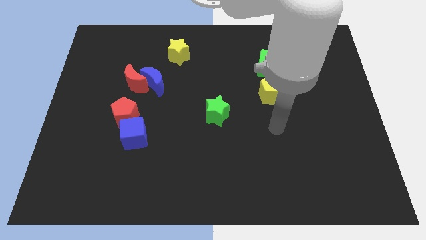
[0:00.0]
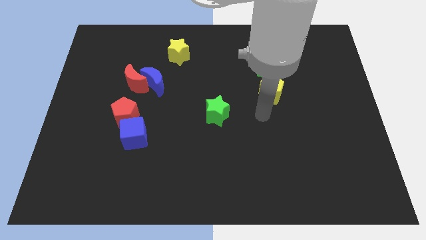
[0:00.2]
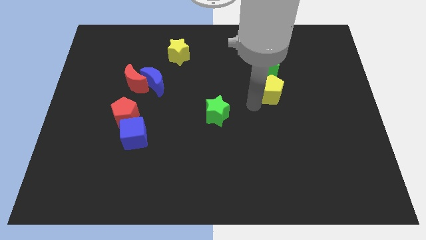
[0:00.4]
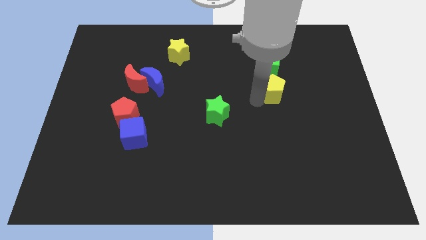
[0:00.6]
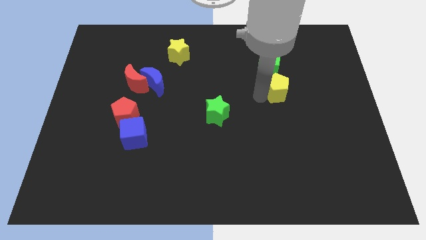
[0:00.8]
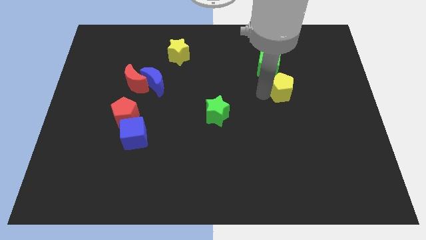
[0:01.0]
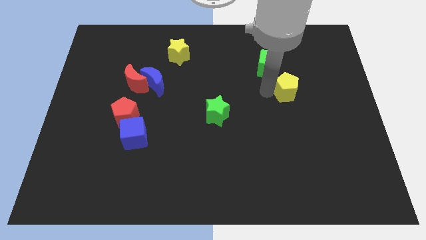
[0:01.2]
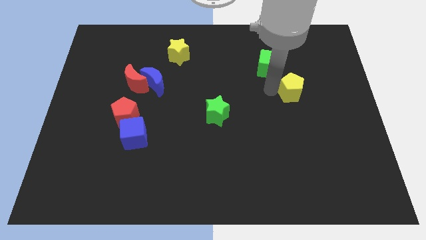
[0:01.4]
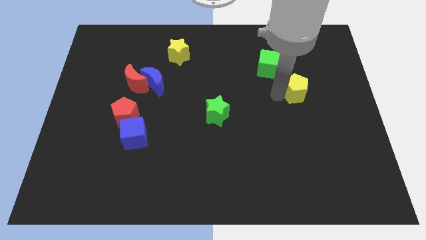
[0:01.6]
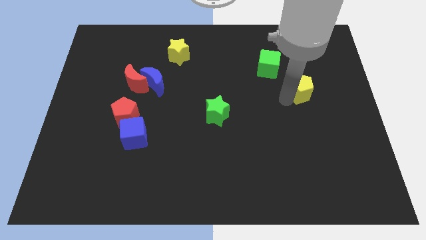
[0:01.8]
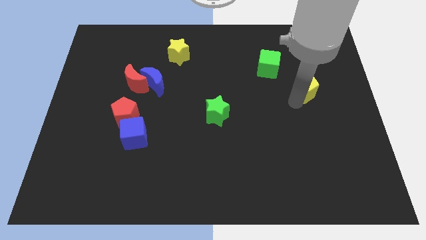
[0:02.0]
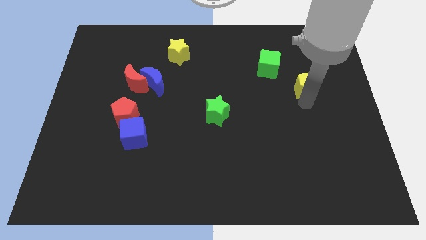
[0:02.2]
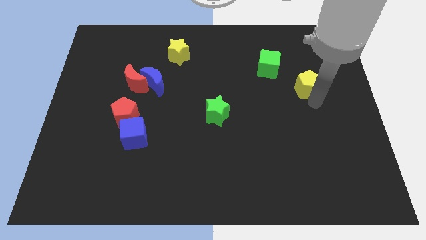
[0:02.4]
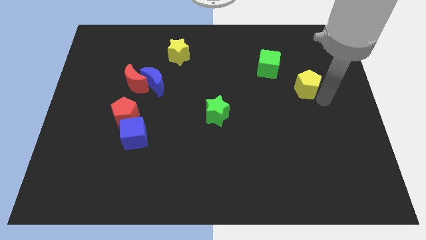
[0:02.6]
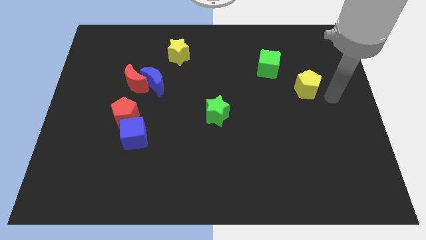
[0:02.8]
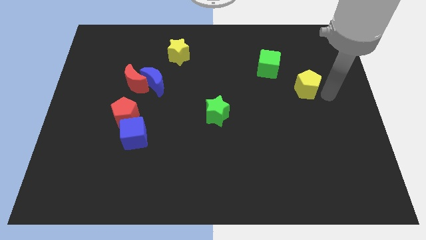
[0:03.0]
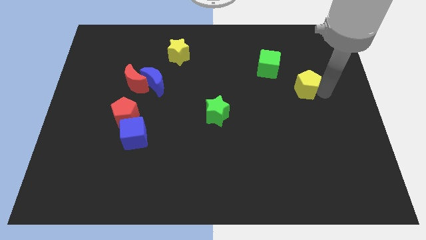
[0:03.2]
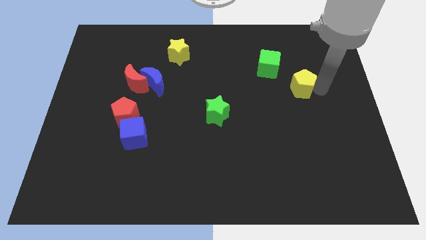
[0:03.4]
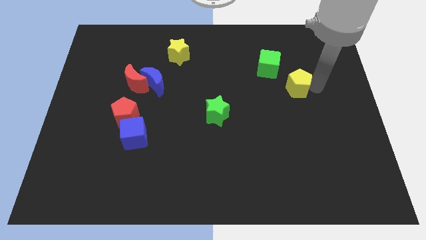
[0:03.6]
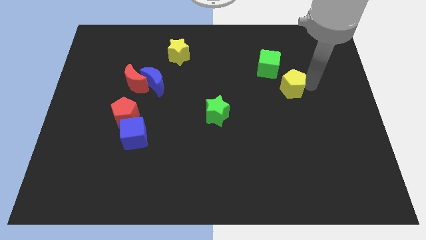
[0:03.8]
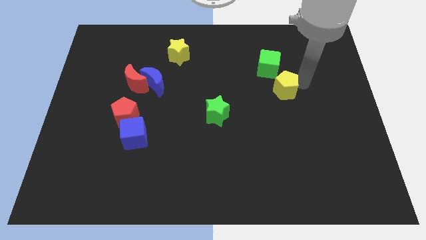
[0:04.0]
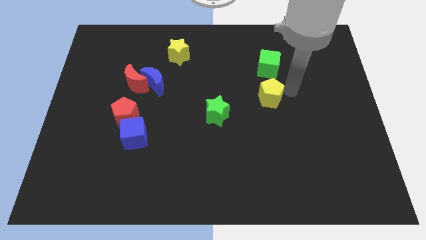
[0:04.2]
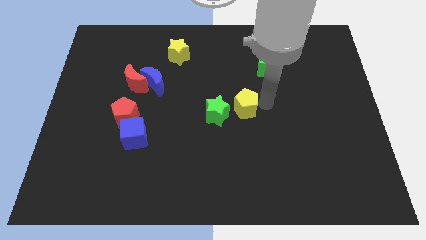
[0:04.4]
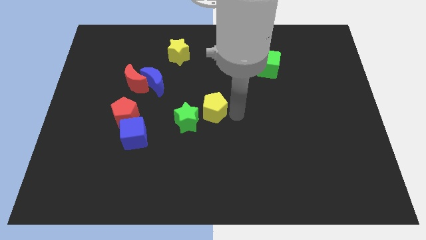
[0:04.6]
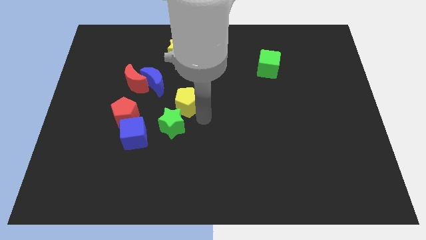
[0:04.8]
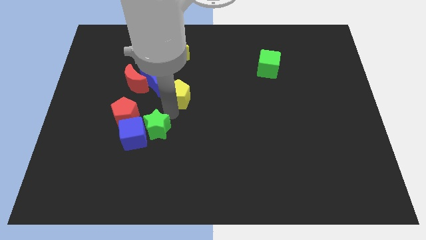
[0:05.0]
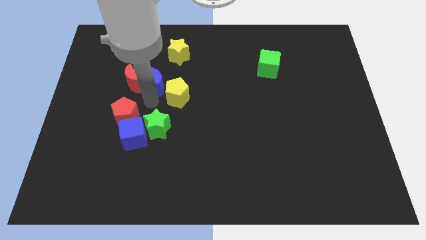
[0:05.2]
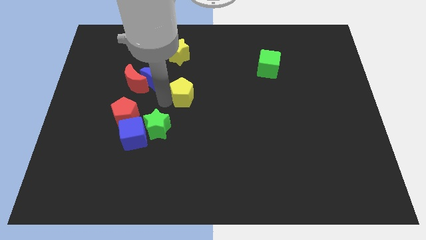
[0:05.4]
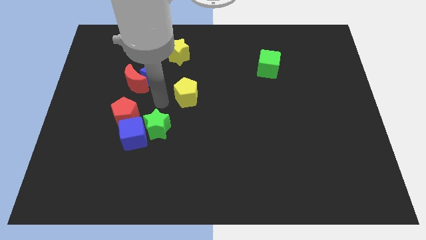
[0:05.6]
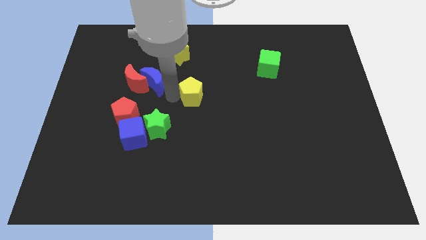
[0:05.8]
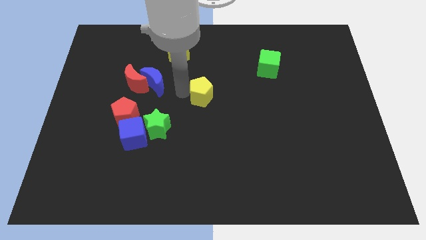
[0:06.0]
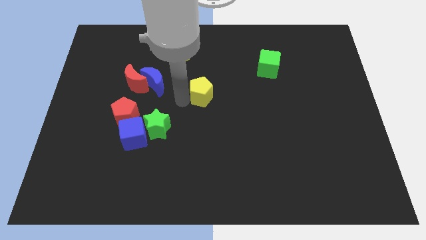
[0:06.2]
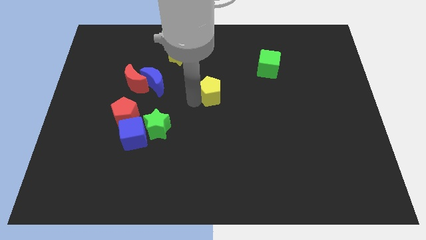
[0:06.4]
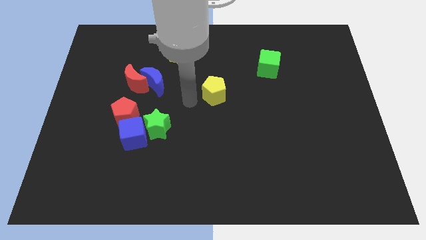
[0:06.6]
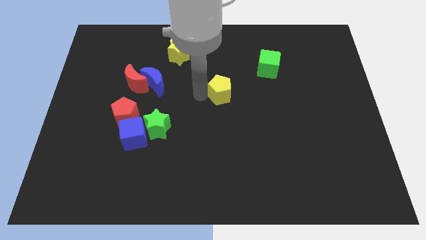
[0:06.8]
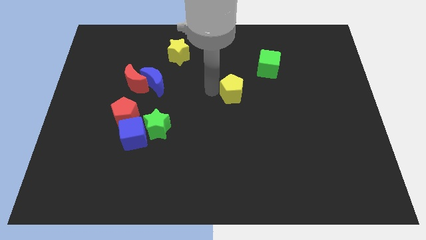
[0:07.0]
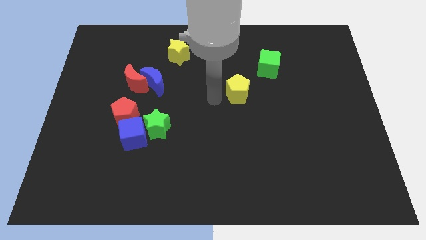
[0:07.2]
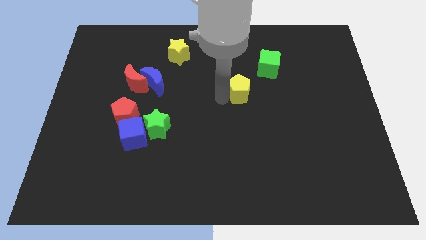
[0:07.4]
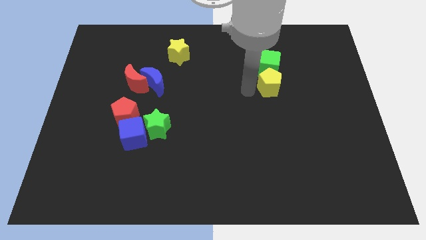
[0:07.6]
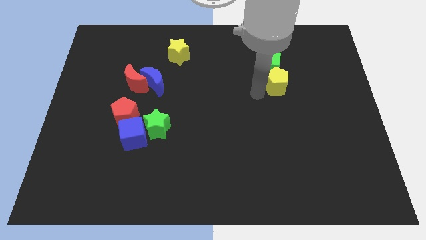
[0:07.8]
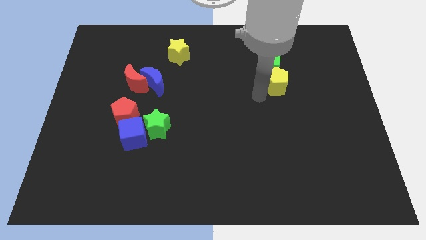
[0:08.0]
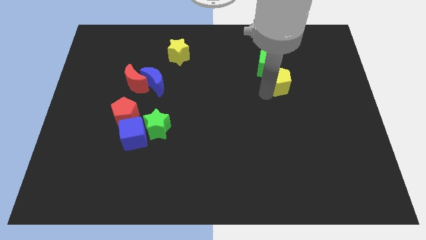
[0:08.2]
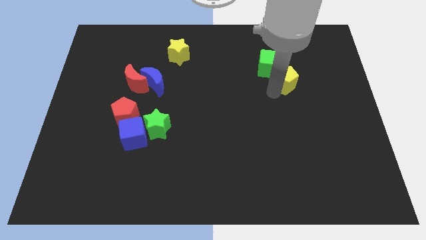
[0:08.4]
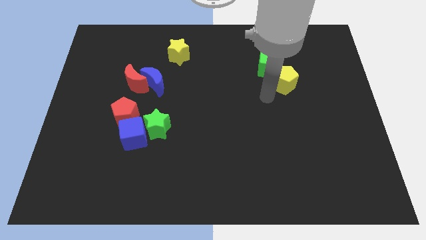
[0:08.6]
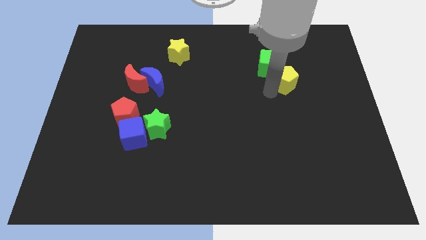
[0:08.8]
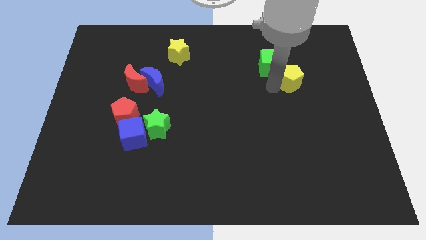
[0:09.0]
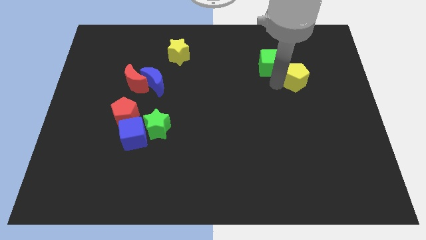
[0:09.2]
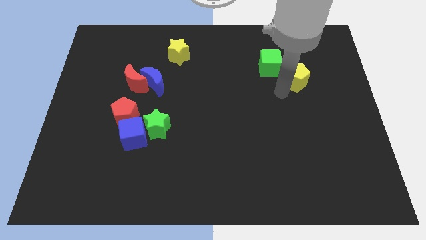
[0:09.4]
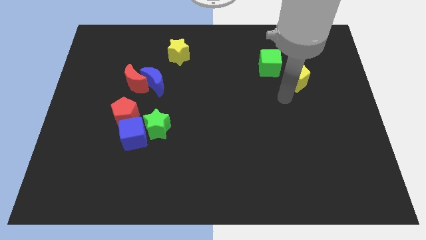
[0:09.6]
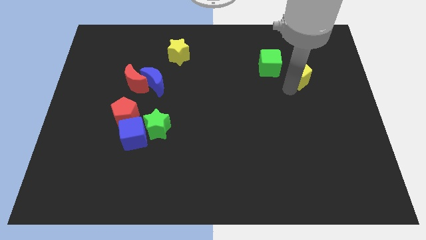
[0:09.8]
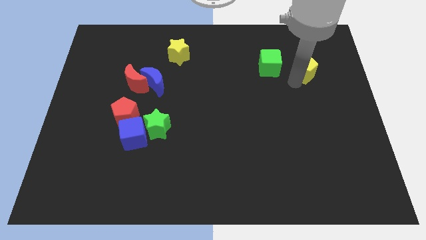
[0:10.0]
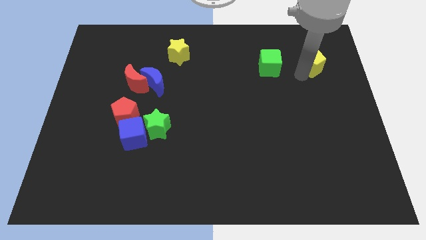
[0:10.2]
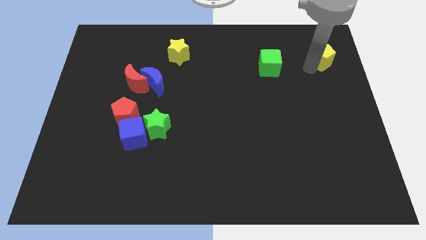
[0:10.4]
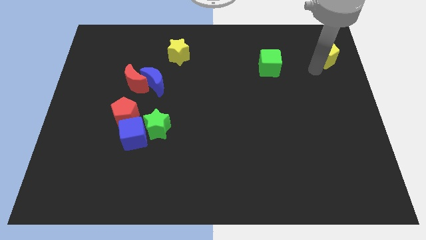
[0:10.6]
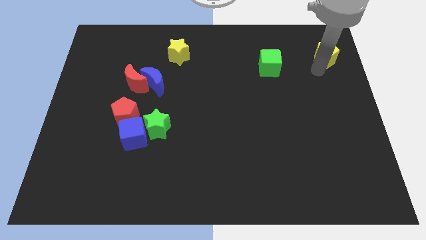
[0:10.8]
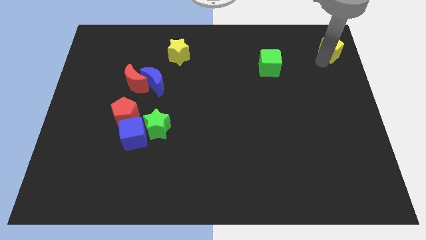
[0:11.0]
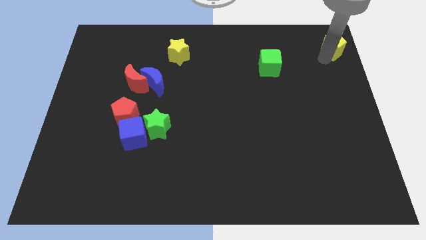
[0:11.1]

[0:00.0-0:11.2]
push the yellow pentagon to the top right of the board

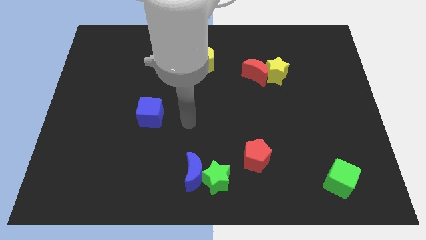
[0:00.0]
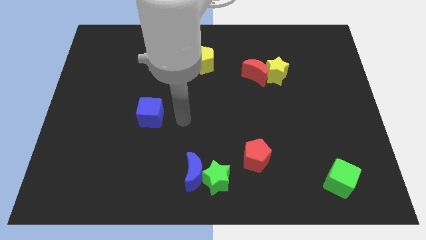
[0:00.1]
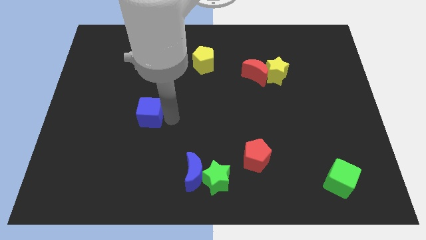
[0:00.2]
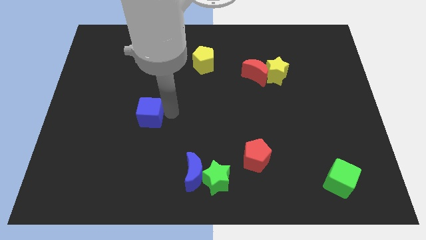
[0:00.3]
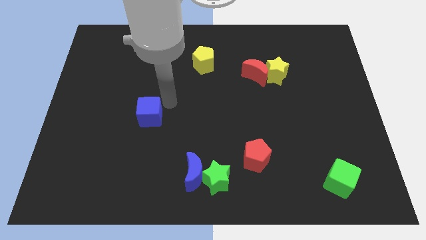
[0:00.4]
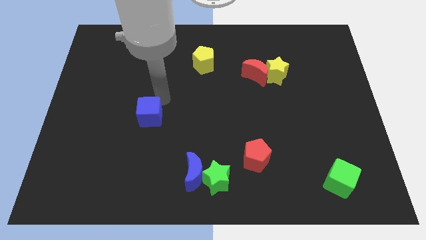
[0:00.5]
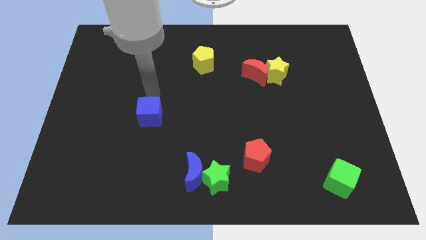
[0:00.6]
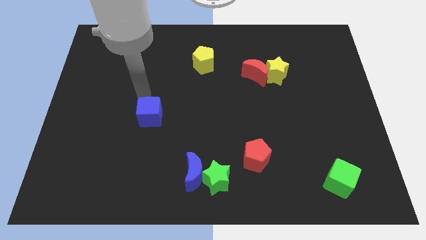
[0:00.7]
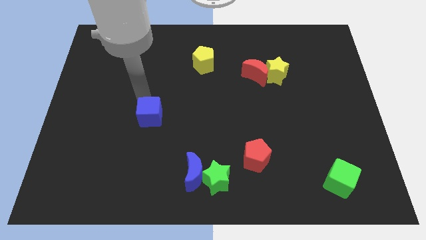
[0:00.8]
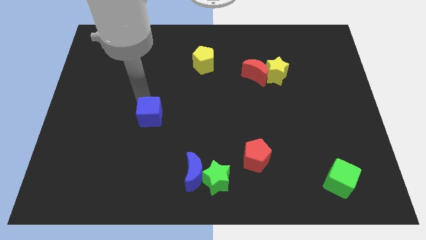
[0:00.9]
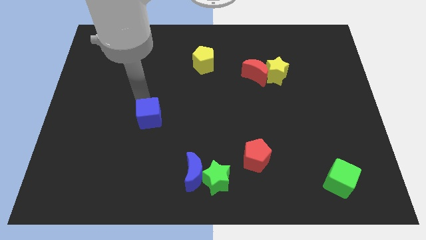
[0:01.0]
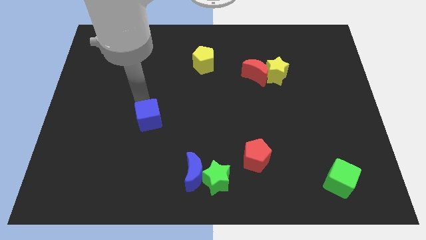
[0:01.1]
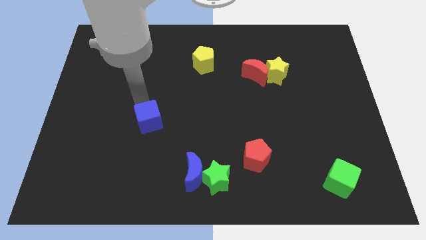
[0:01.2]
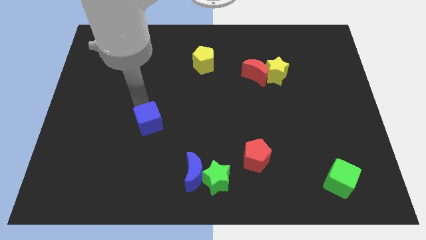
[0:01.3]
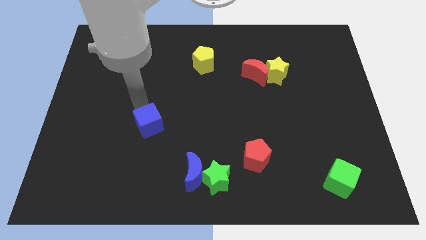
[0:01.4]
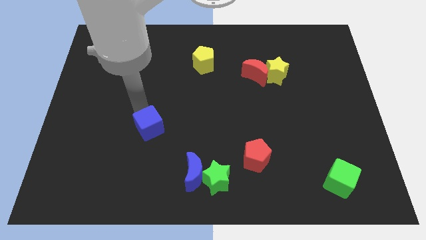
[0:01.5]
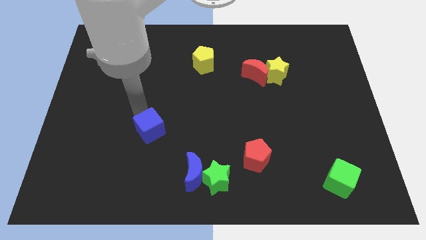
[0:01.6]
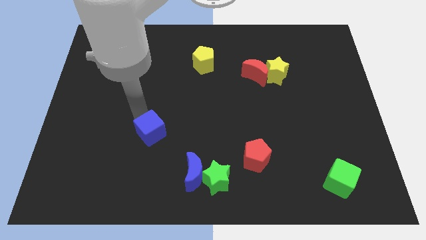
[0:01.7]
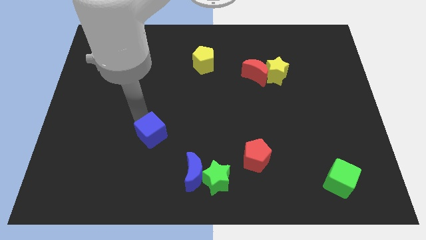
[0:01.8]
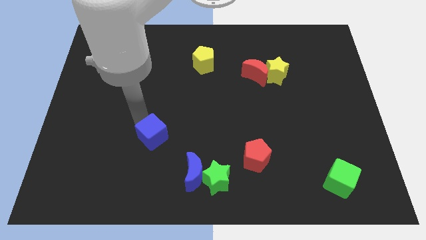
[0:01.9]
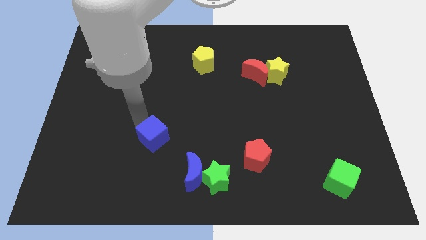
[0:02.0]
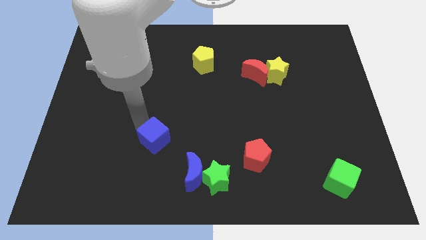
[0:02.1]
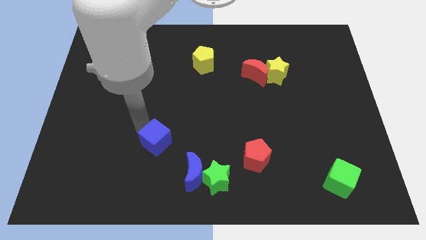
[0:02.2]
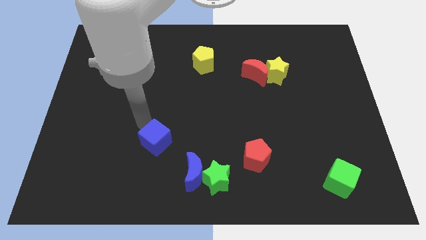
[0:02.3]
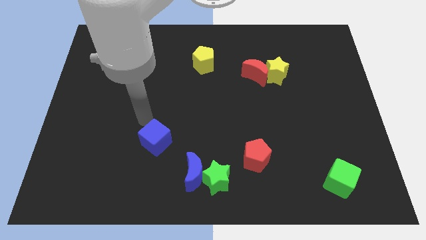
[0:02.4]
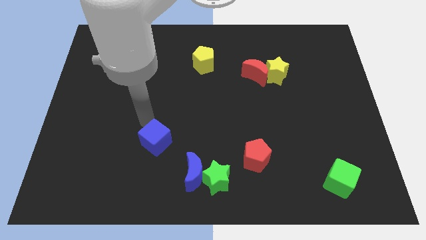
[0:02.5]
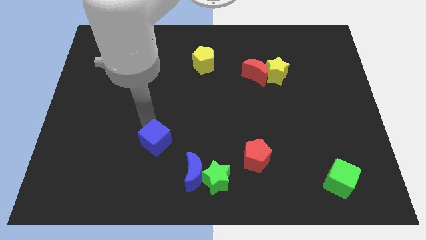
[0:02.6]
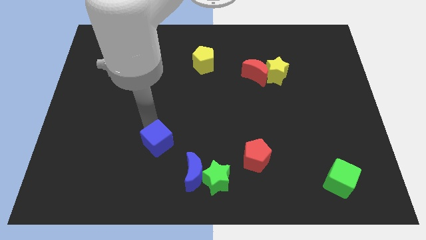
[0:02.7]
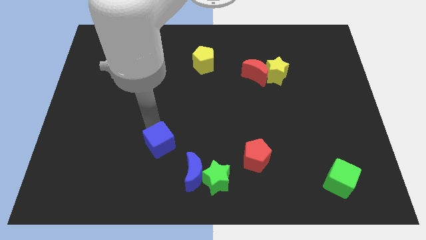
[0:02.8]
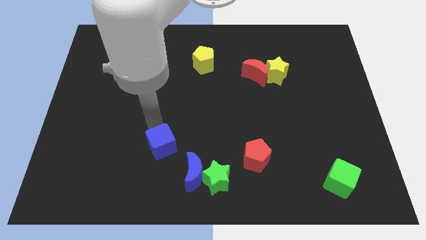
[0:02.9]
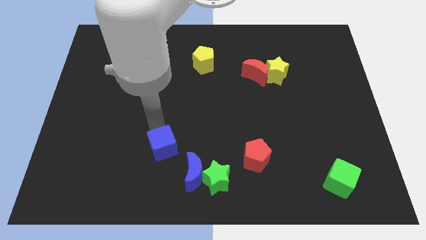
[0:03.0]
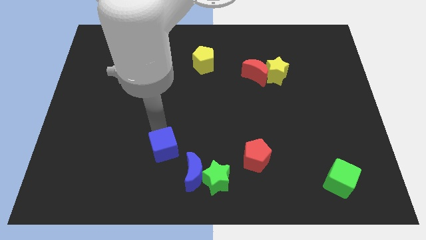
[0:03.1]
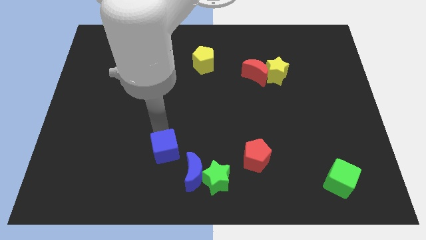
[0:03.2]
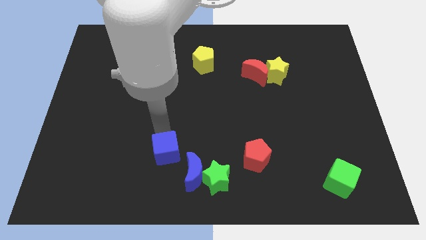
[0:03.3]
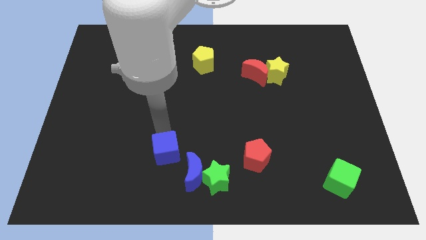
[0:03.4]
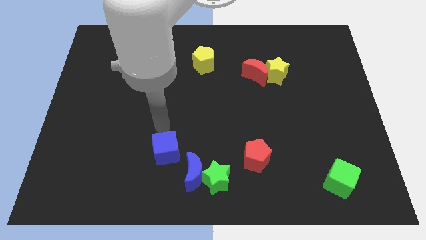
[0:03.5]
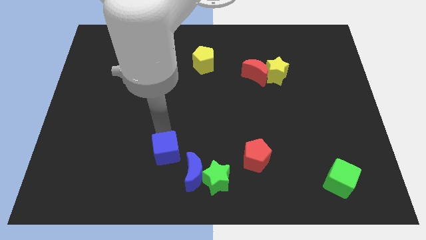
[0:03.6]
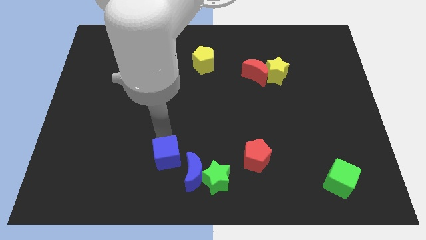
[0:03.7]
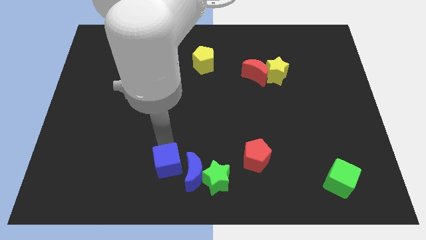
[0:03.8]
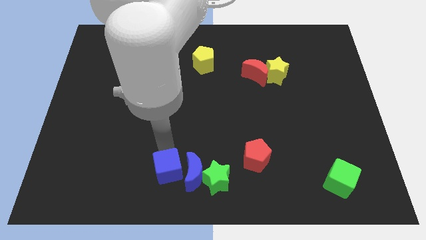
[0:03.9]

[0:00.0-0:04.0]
move the blue cube to the bottom side
